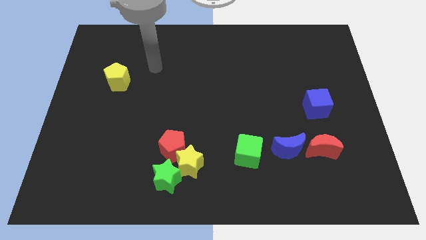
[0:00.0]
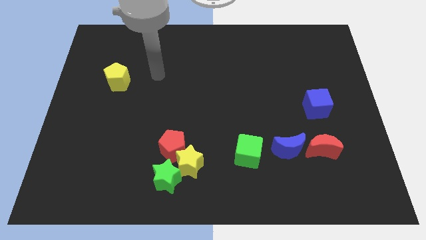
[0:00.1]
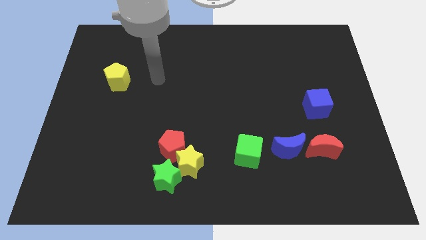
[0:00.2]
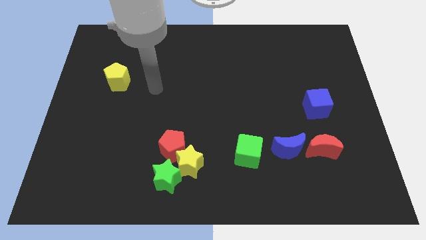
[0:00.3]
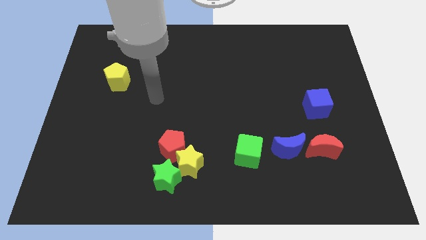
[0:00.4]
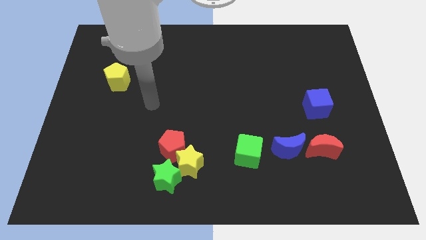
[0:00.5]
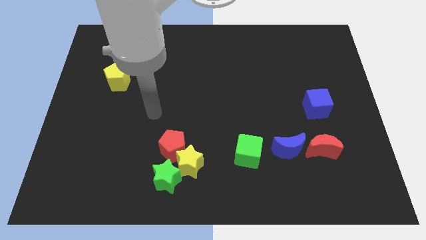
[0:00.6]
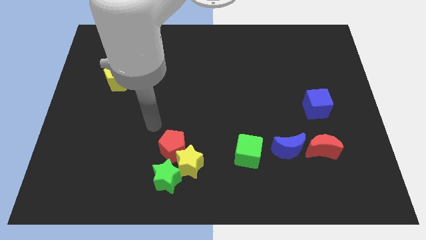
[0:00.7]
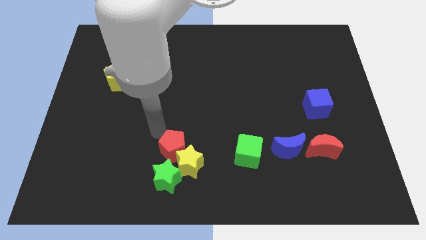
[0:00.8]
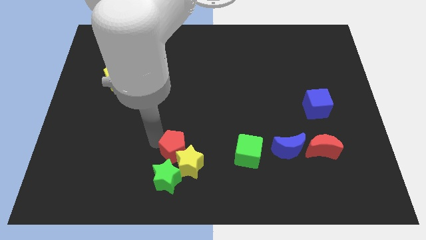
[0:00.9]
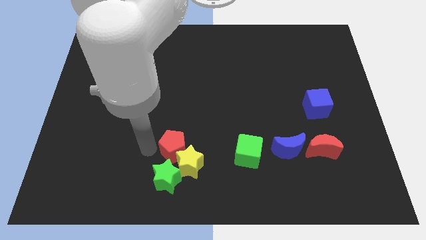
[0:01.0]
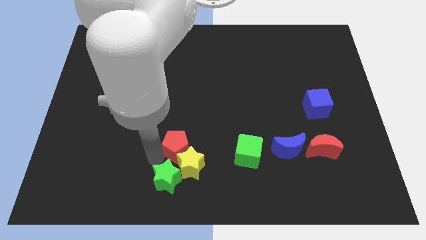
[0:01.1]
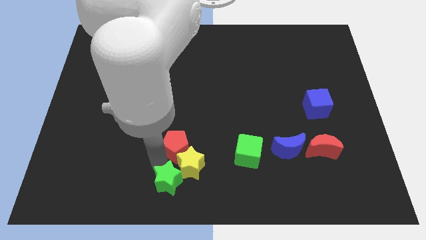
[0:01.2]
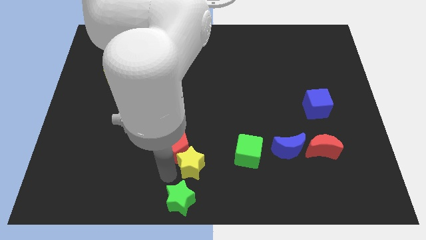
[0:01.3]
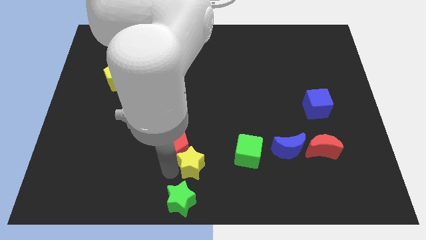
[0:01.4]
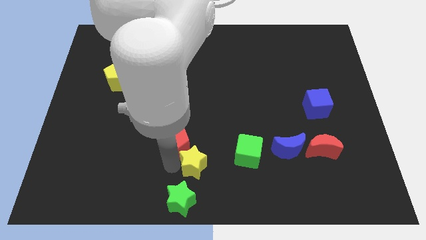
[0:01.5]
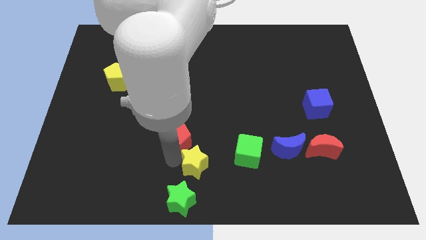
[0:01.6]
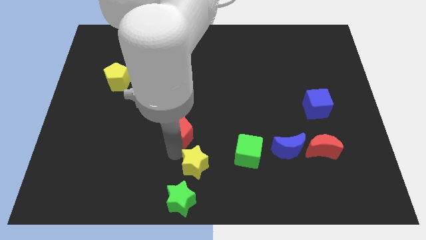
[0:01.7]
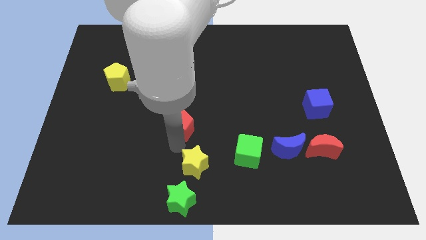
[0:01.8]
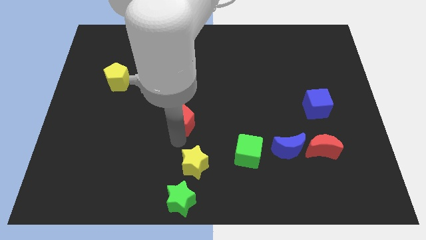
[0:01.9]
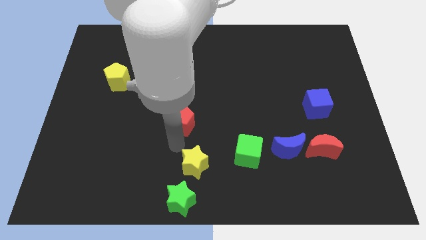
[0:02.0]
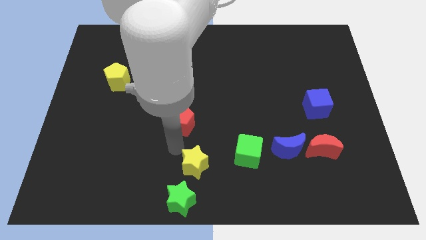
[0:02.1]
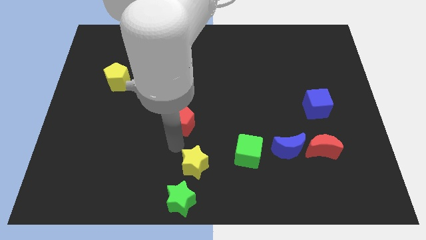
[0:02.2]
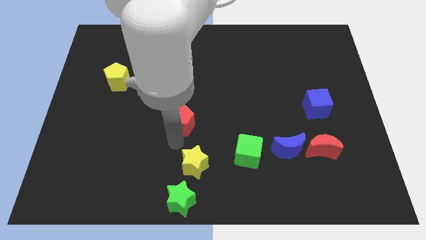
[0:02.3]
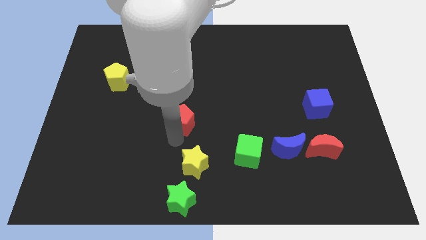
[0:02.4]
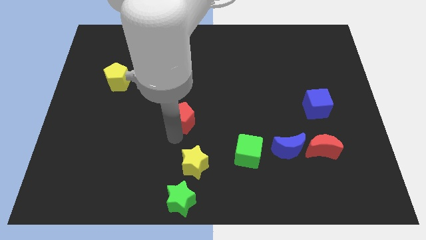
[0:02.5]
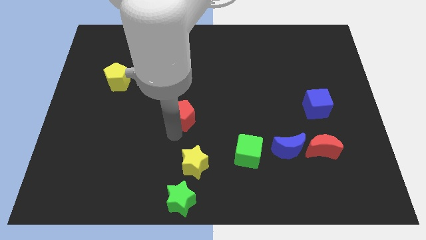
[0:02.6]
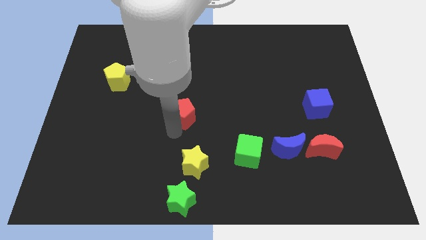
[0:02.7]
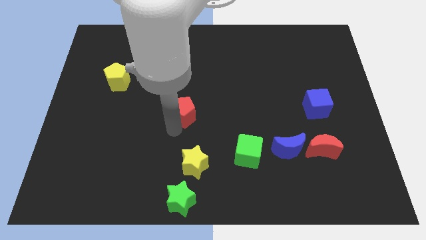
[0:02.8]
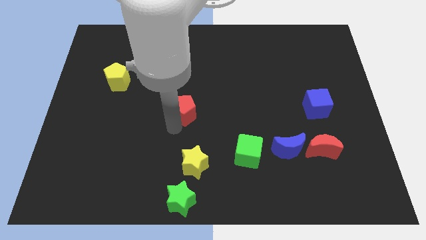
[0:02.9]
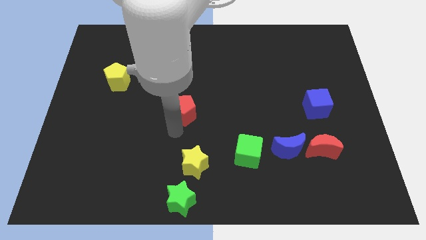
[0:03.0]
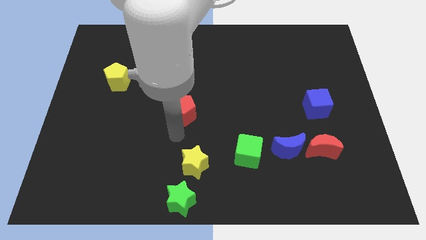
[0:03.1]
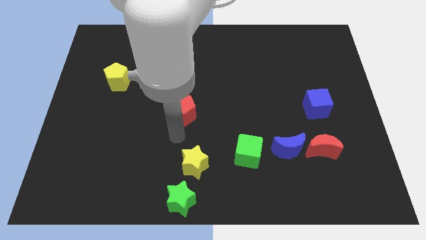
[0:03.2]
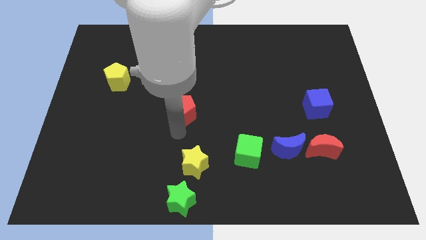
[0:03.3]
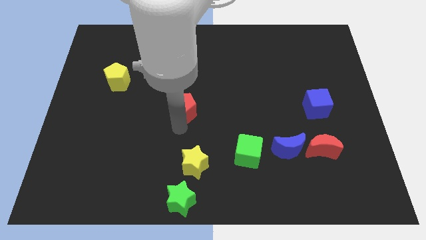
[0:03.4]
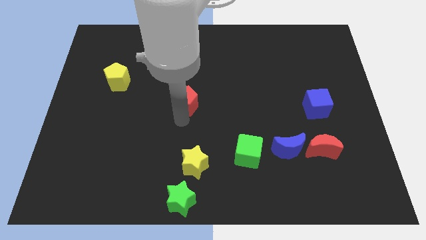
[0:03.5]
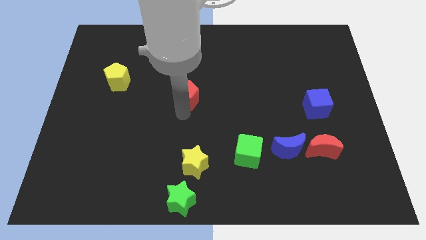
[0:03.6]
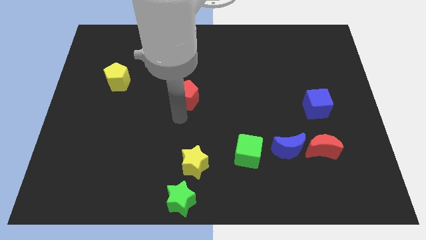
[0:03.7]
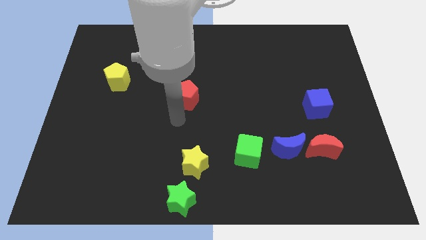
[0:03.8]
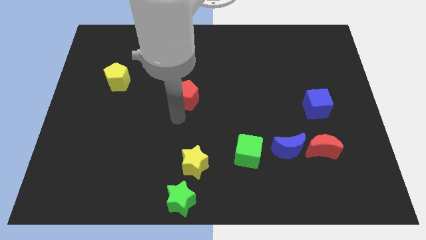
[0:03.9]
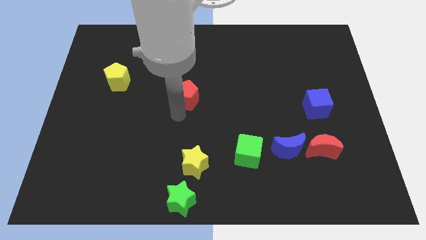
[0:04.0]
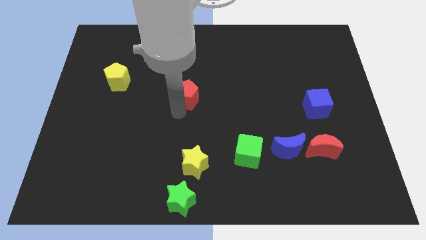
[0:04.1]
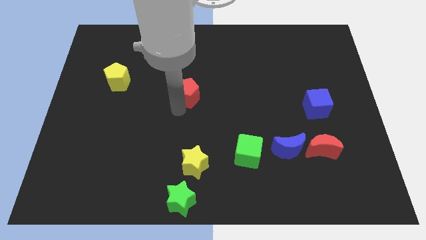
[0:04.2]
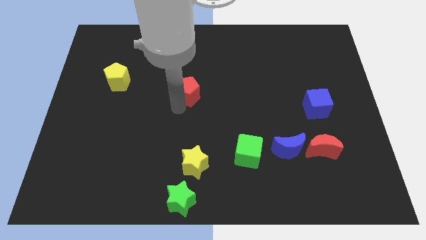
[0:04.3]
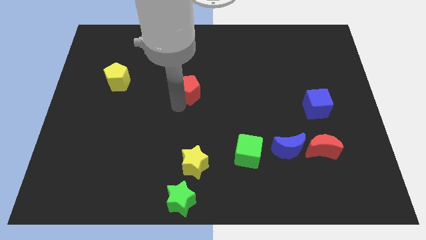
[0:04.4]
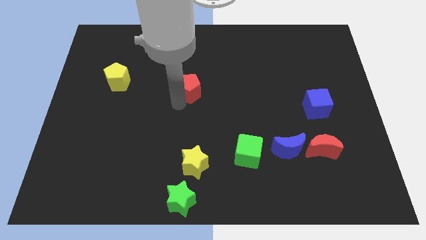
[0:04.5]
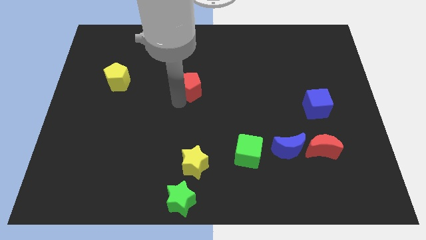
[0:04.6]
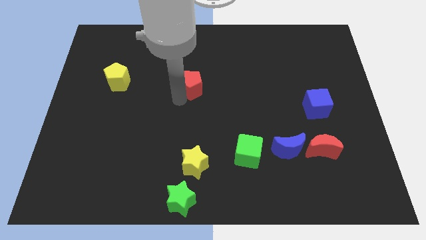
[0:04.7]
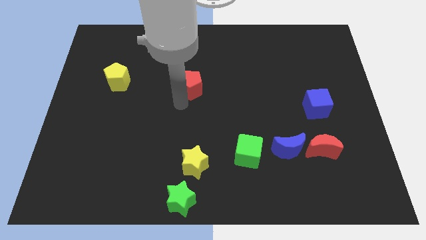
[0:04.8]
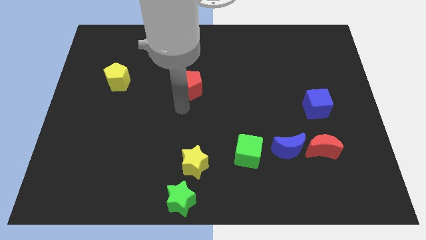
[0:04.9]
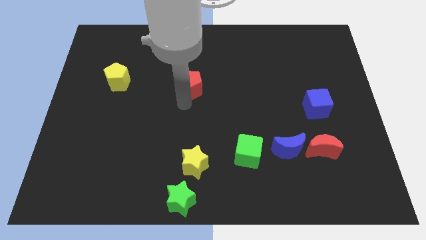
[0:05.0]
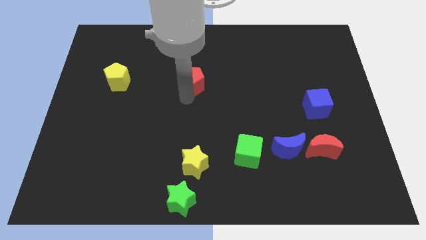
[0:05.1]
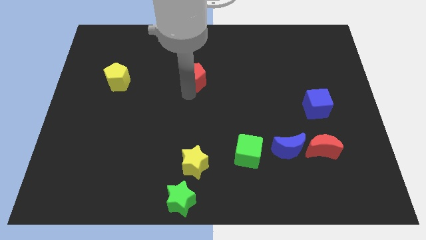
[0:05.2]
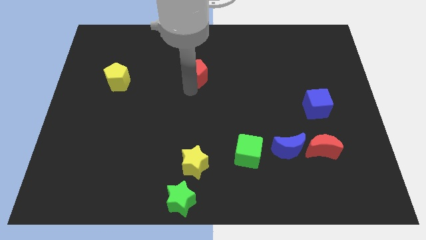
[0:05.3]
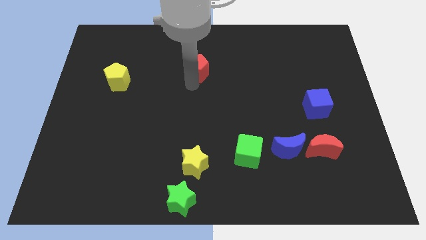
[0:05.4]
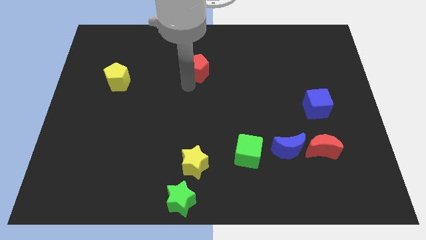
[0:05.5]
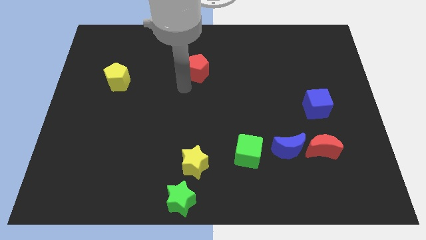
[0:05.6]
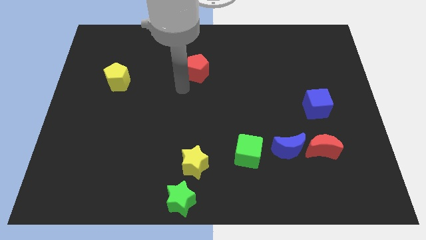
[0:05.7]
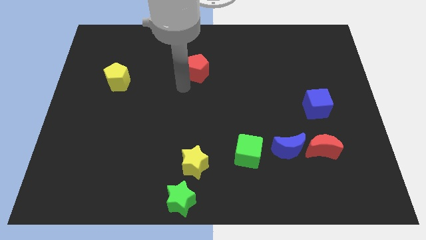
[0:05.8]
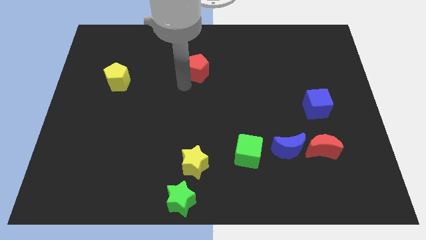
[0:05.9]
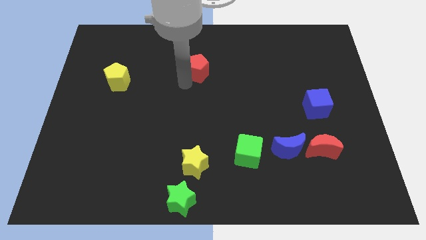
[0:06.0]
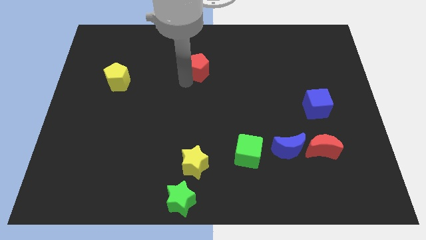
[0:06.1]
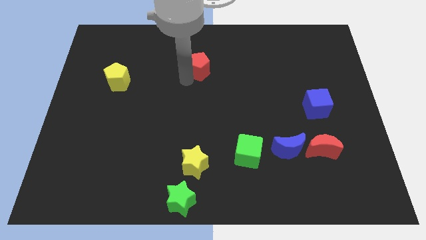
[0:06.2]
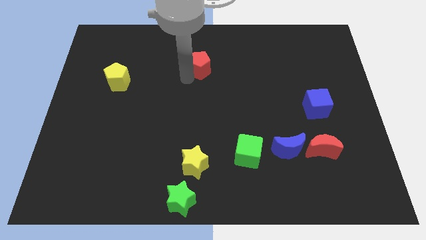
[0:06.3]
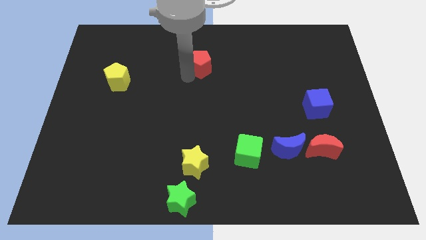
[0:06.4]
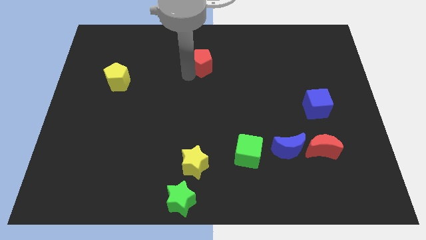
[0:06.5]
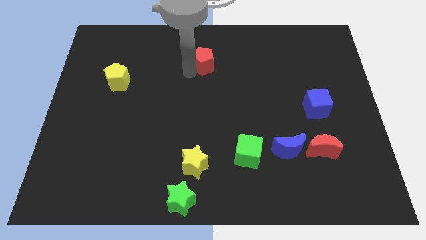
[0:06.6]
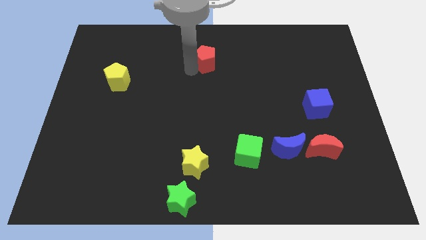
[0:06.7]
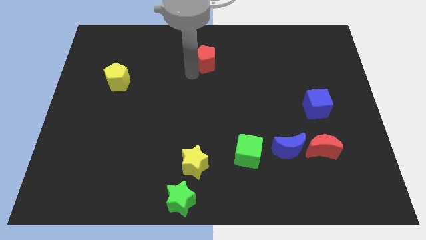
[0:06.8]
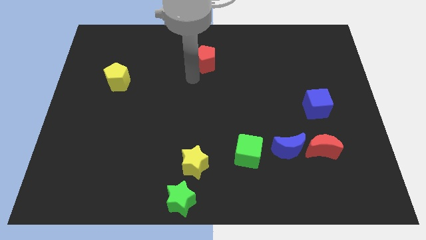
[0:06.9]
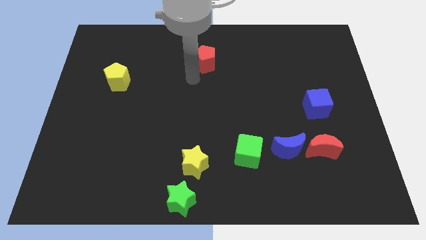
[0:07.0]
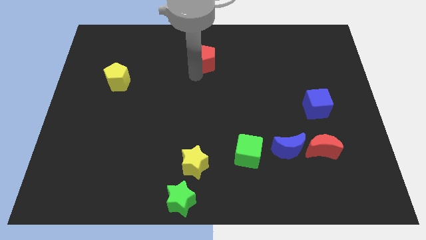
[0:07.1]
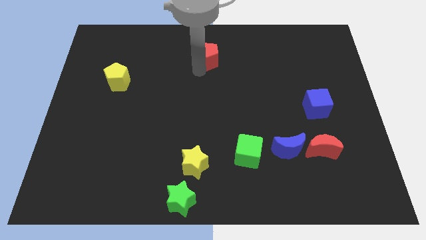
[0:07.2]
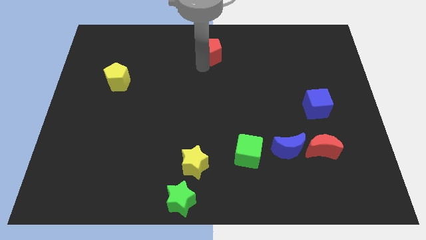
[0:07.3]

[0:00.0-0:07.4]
push the red pentagon to the towards your base
